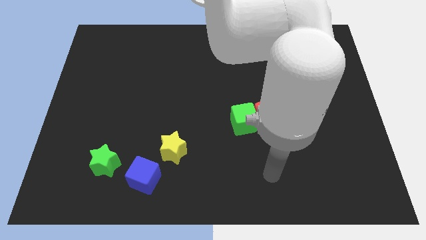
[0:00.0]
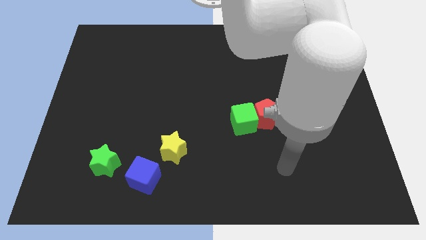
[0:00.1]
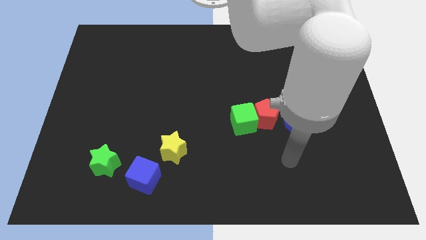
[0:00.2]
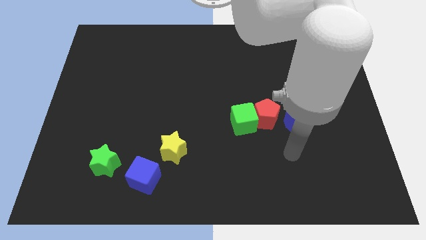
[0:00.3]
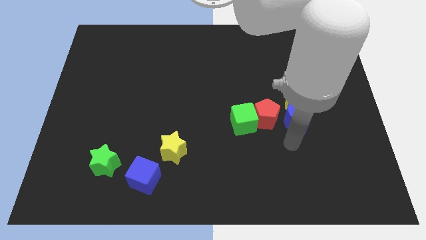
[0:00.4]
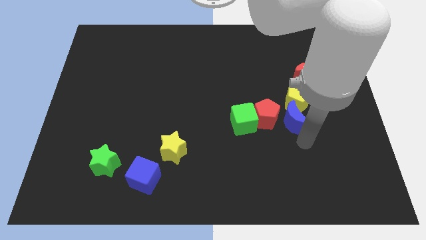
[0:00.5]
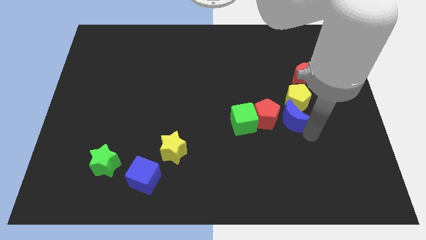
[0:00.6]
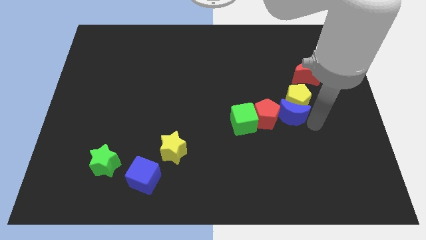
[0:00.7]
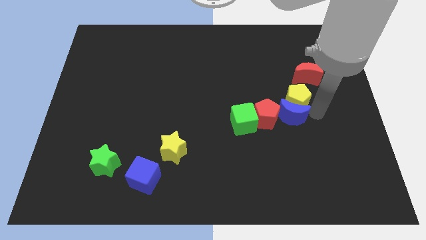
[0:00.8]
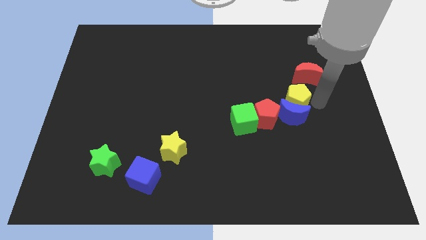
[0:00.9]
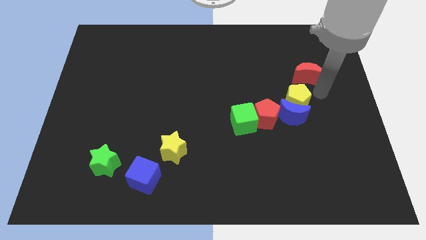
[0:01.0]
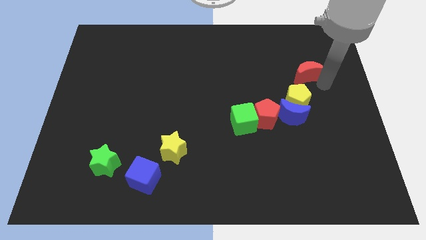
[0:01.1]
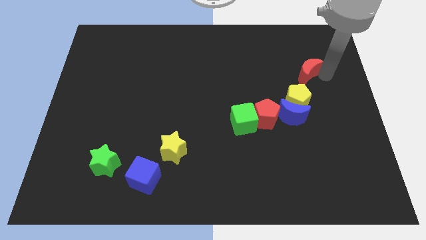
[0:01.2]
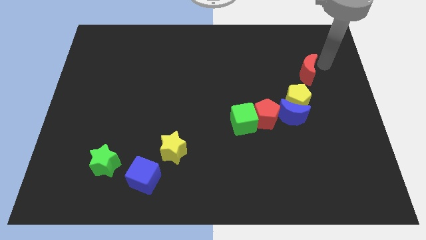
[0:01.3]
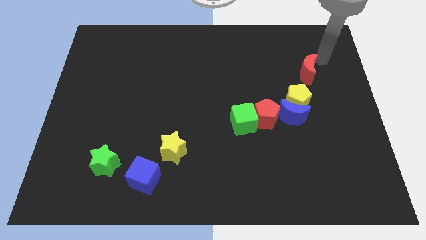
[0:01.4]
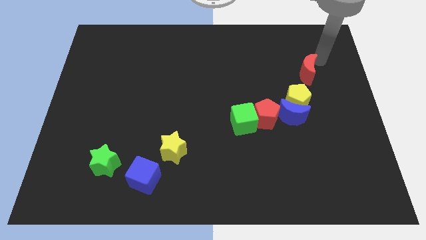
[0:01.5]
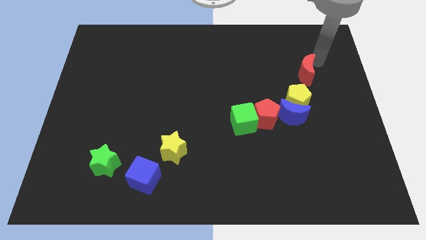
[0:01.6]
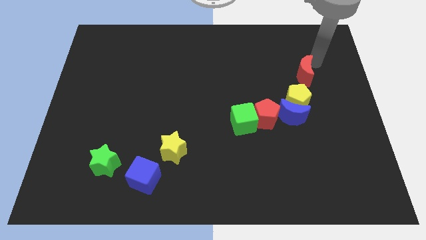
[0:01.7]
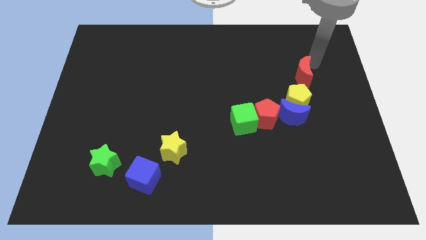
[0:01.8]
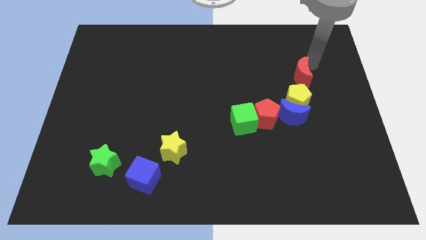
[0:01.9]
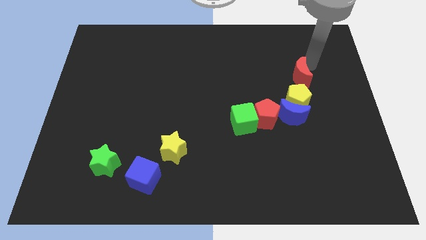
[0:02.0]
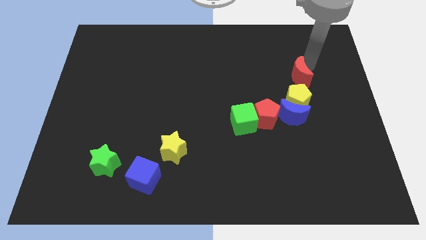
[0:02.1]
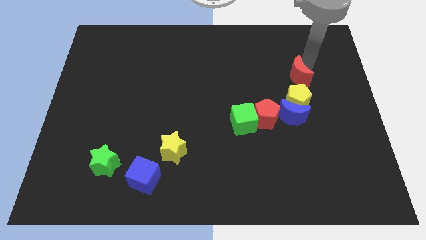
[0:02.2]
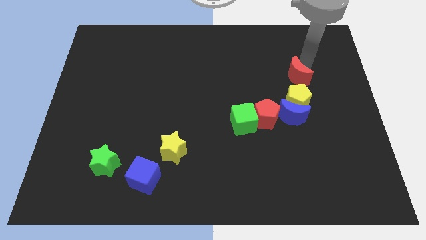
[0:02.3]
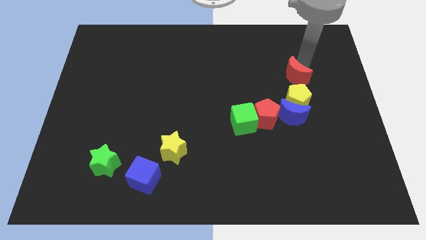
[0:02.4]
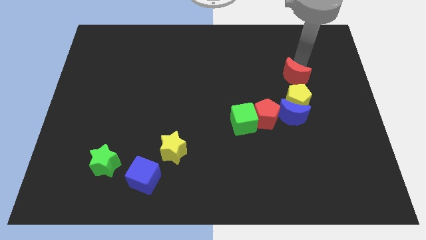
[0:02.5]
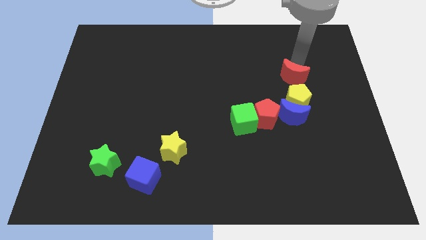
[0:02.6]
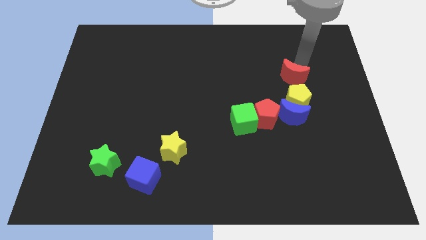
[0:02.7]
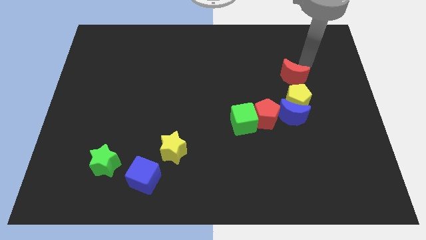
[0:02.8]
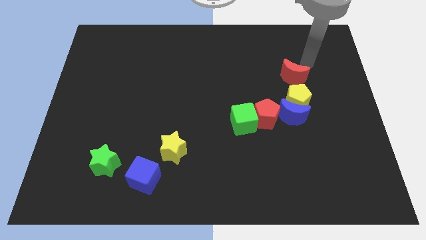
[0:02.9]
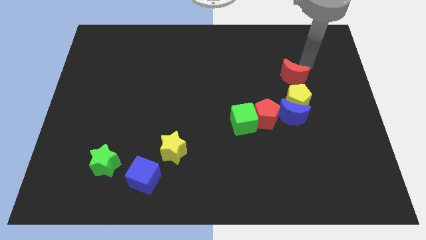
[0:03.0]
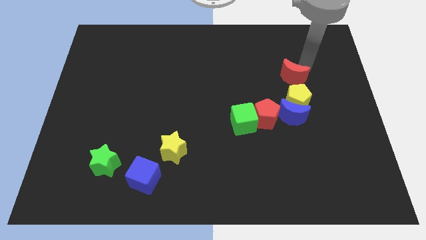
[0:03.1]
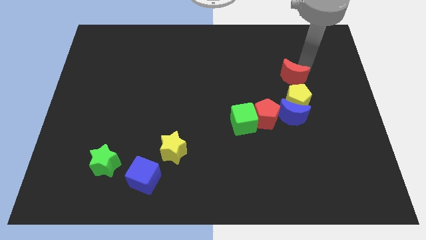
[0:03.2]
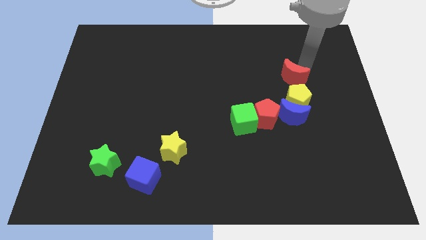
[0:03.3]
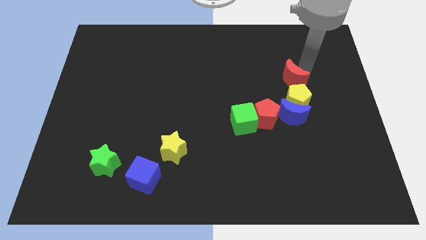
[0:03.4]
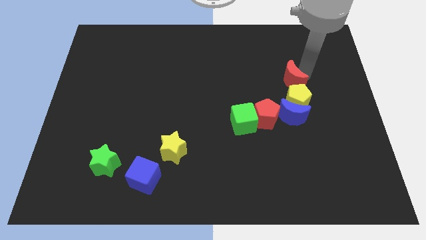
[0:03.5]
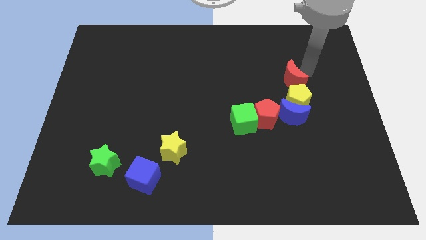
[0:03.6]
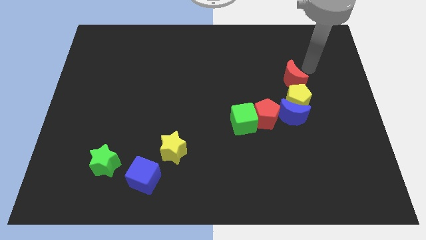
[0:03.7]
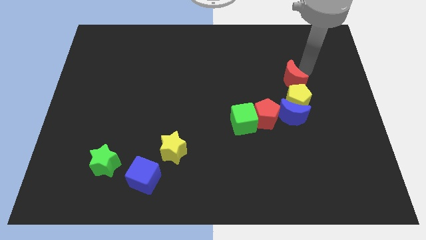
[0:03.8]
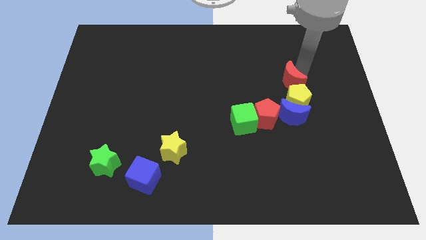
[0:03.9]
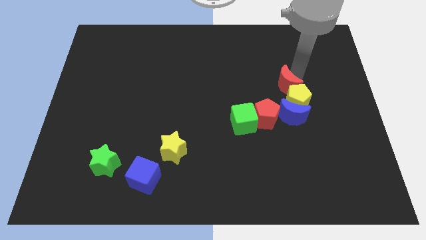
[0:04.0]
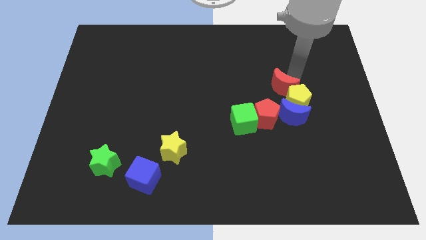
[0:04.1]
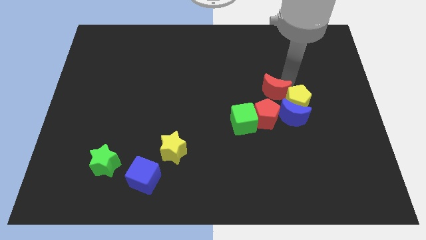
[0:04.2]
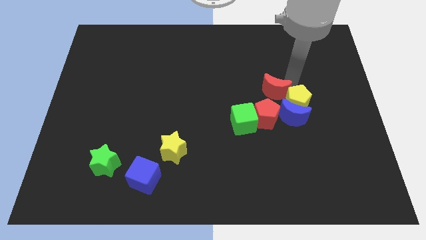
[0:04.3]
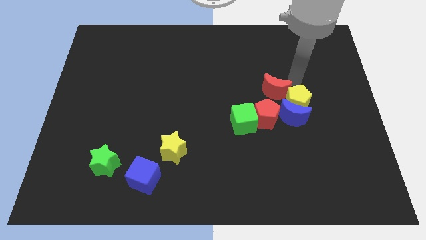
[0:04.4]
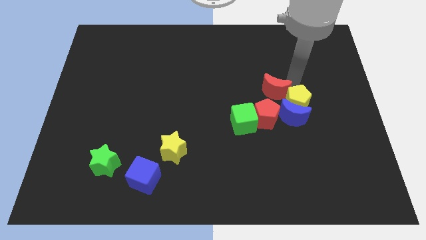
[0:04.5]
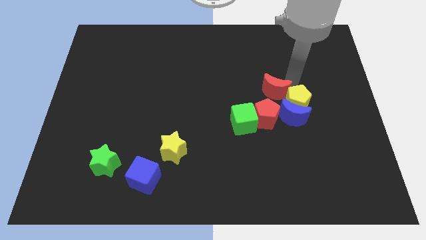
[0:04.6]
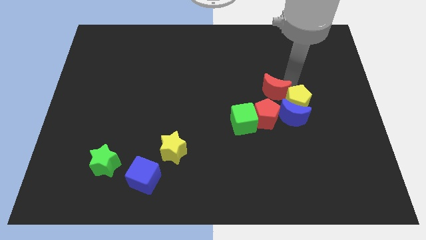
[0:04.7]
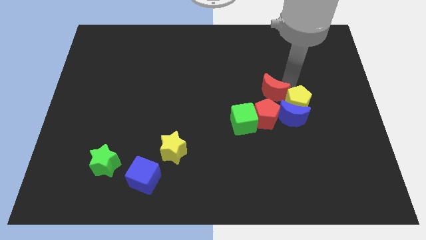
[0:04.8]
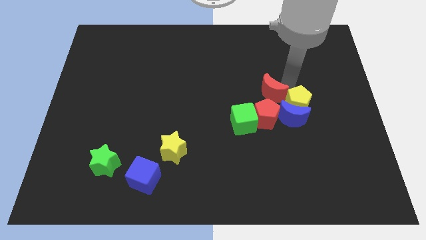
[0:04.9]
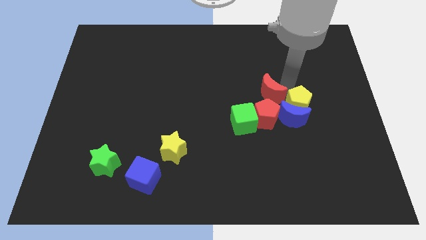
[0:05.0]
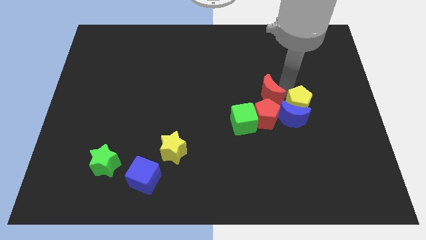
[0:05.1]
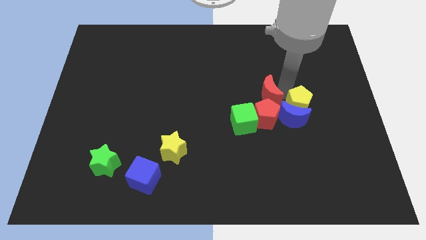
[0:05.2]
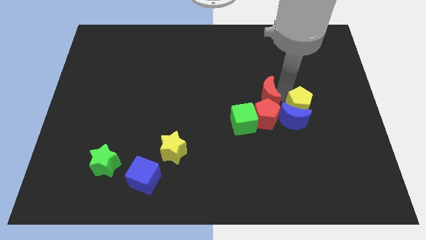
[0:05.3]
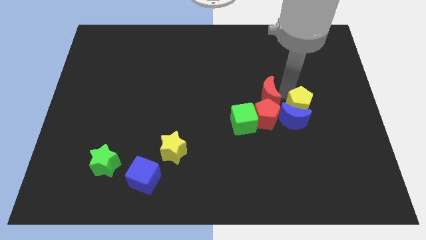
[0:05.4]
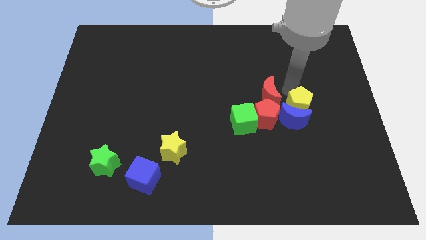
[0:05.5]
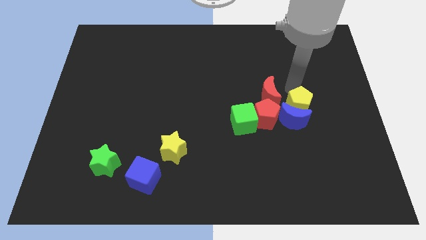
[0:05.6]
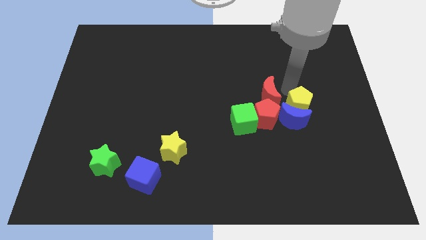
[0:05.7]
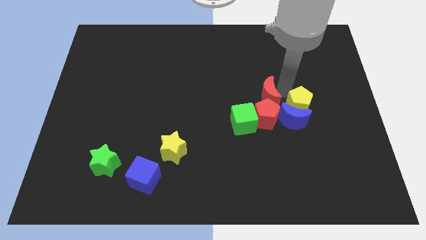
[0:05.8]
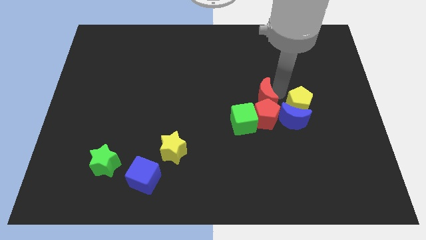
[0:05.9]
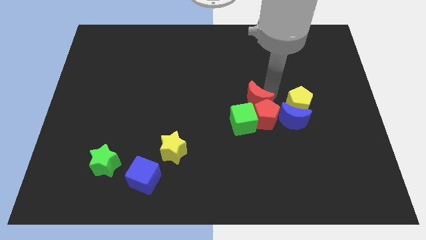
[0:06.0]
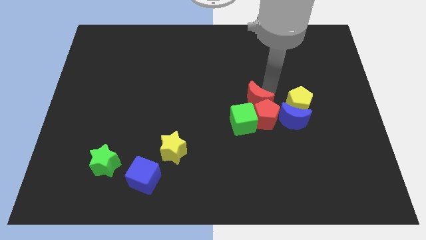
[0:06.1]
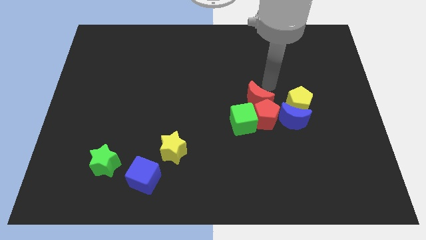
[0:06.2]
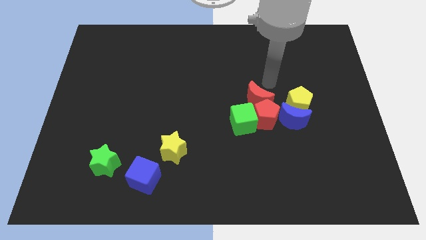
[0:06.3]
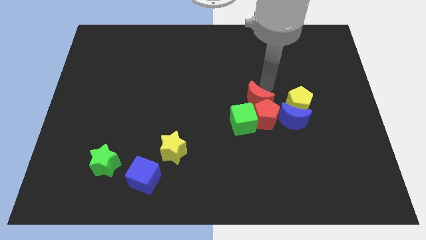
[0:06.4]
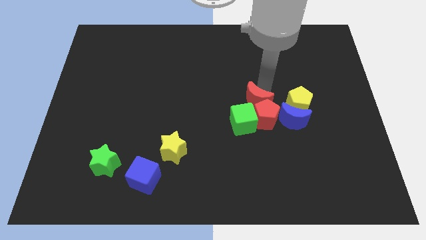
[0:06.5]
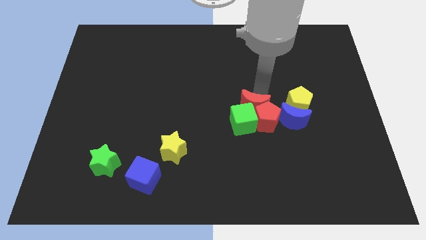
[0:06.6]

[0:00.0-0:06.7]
put the red moon to the green cube
